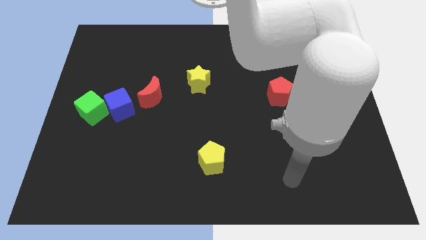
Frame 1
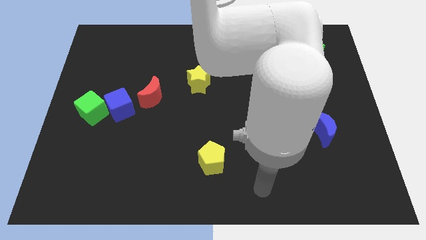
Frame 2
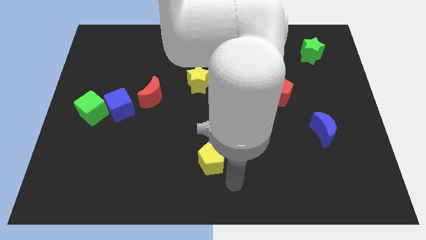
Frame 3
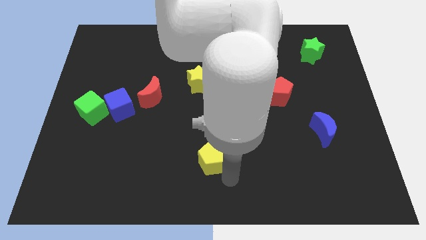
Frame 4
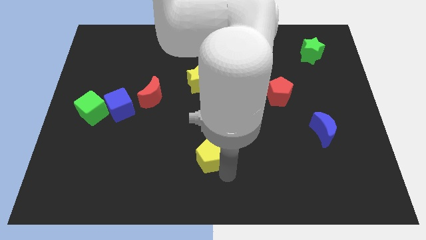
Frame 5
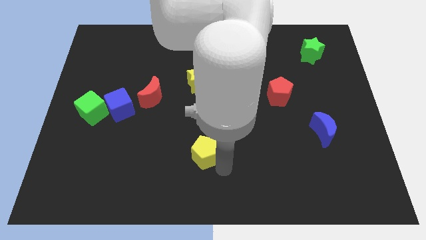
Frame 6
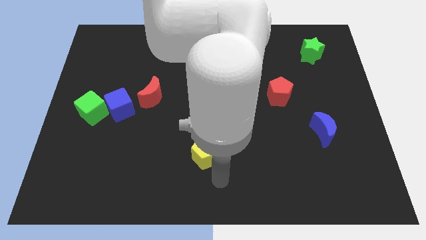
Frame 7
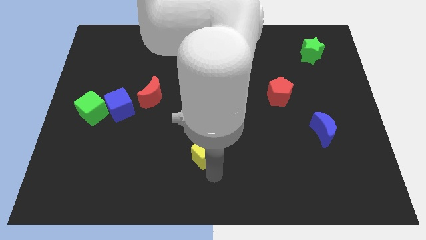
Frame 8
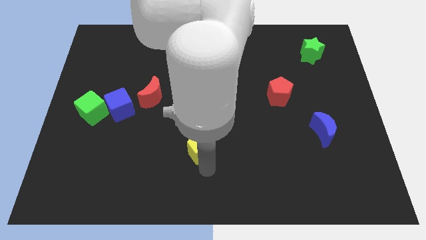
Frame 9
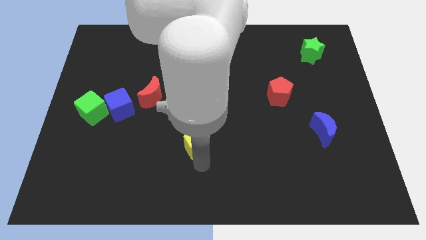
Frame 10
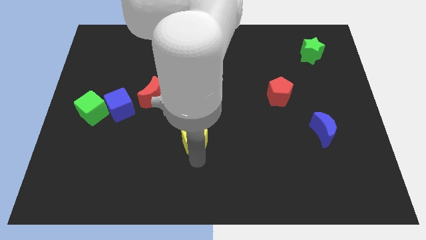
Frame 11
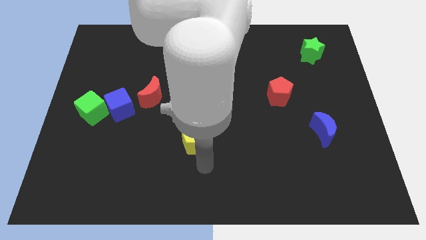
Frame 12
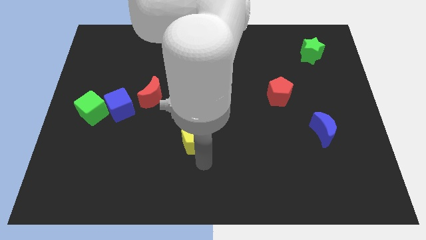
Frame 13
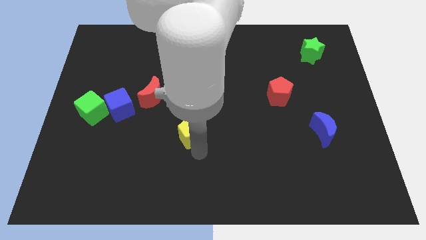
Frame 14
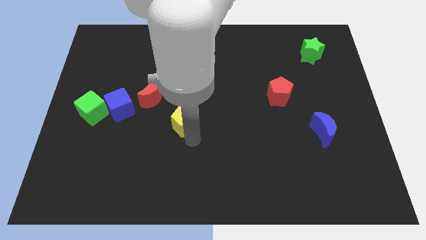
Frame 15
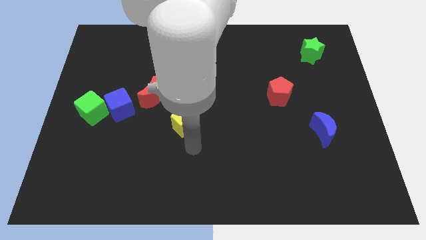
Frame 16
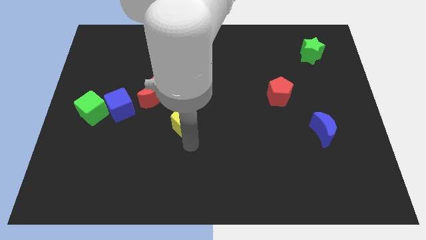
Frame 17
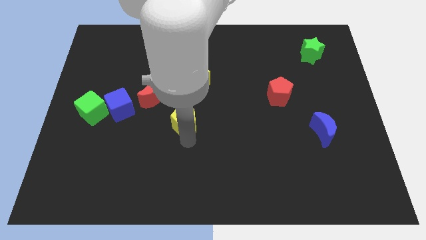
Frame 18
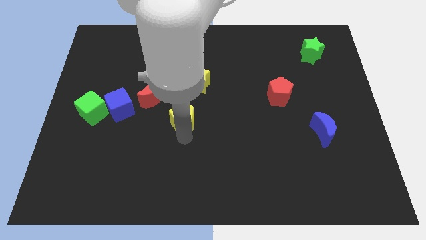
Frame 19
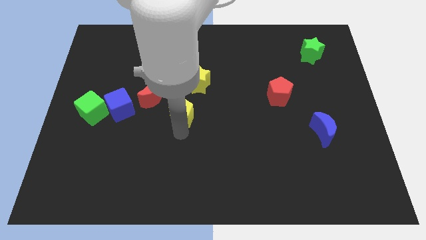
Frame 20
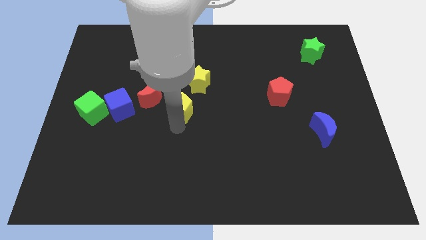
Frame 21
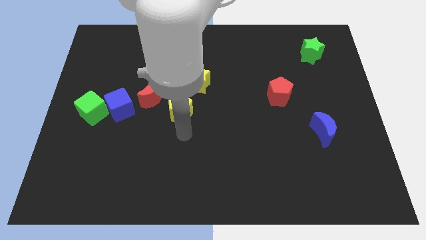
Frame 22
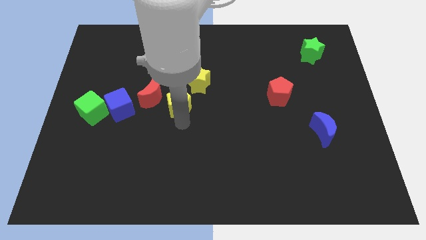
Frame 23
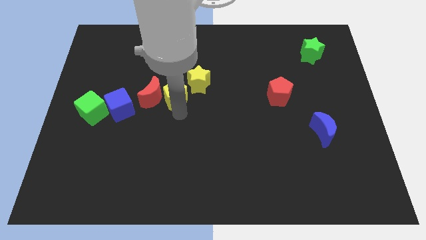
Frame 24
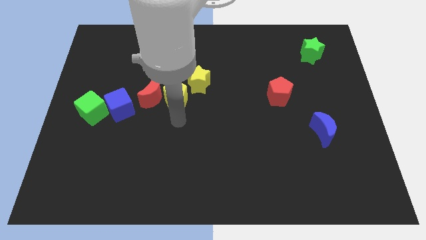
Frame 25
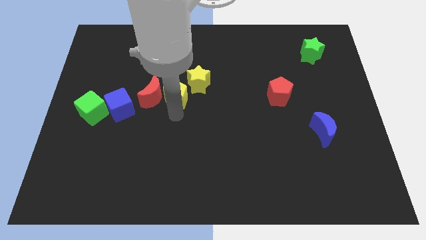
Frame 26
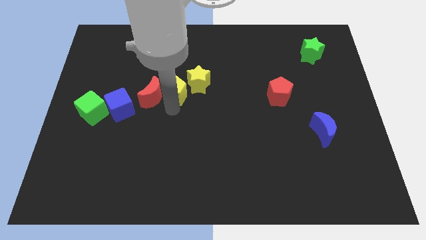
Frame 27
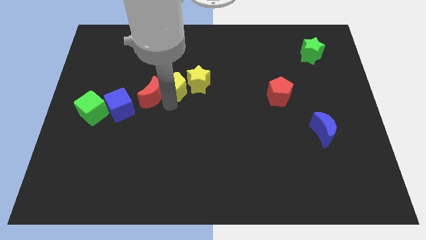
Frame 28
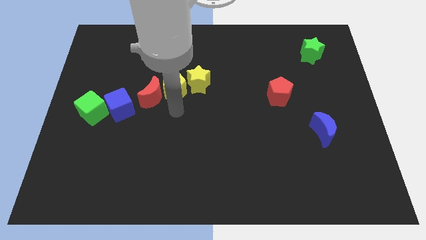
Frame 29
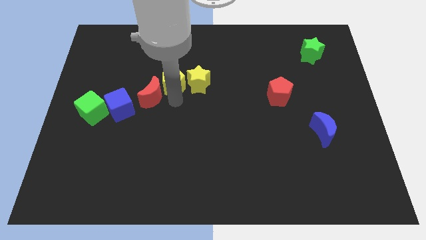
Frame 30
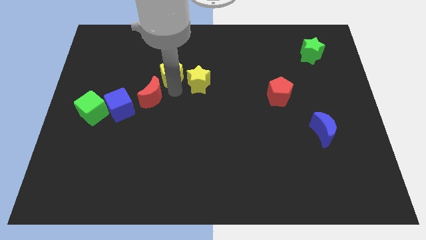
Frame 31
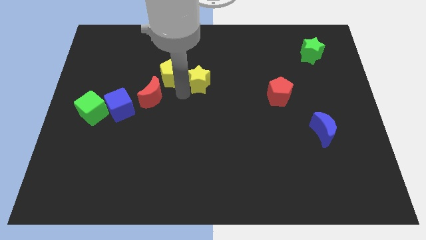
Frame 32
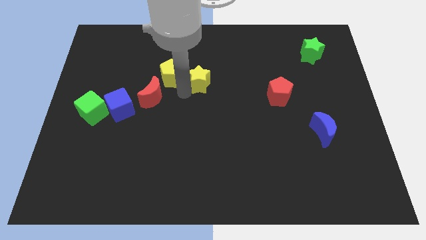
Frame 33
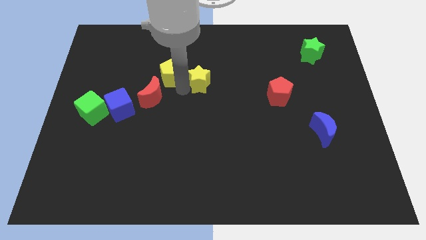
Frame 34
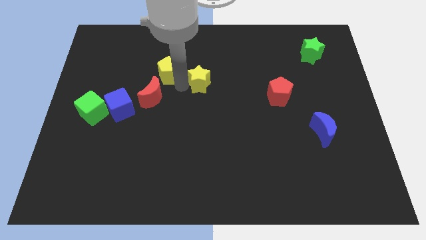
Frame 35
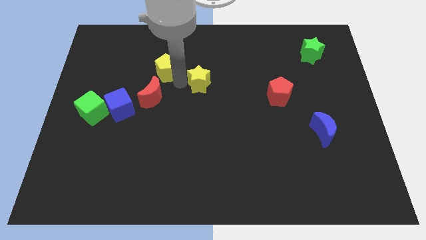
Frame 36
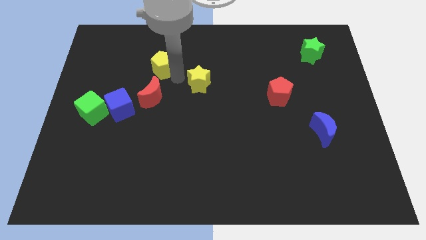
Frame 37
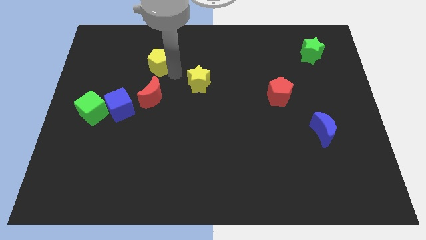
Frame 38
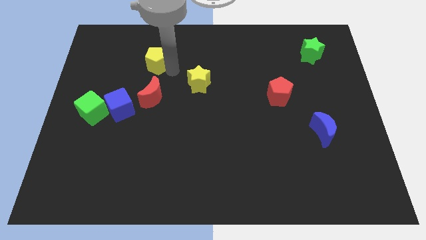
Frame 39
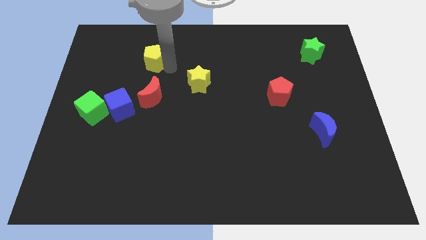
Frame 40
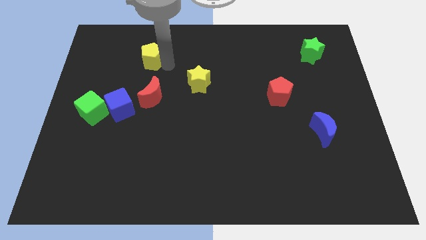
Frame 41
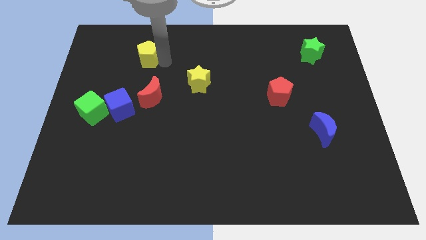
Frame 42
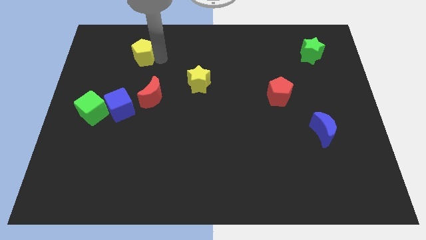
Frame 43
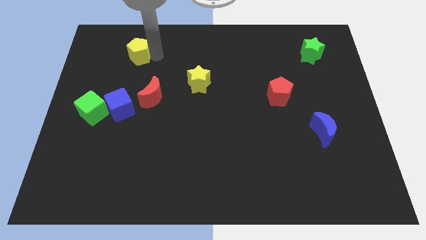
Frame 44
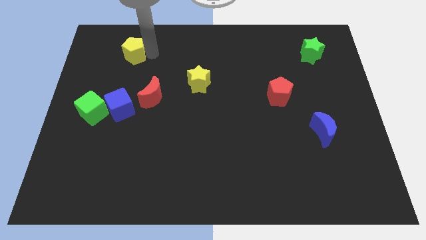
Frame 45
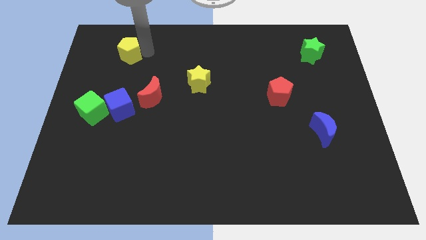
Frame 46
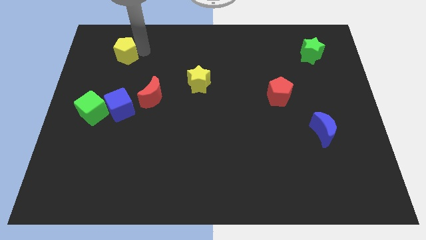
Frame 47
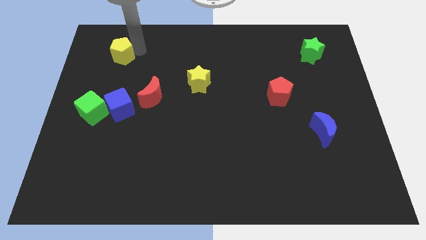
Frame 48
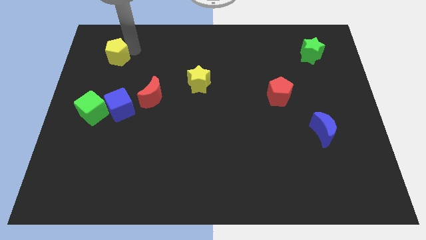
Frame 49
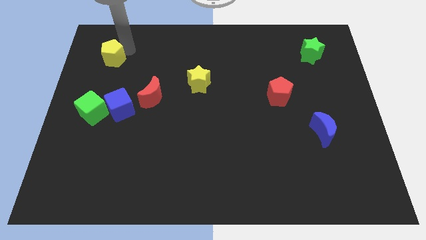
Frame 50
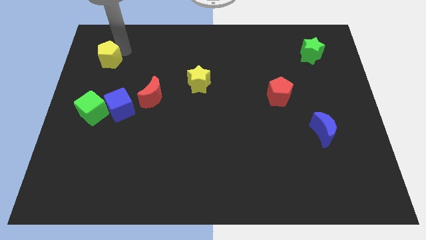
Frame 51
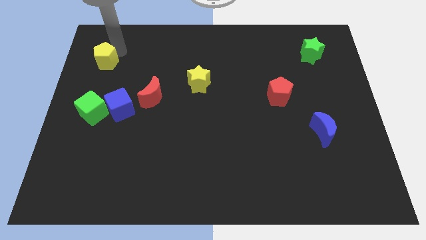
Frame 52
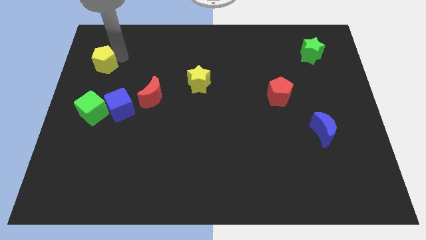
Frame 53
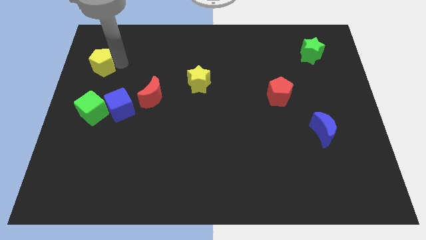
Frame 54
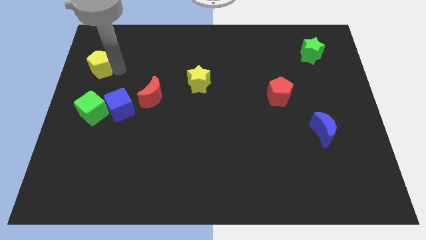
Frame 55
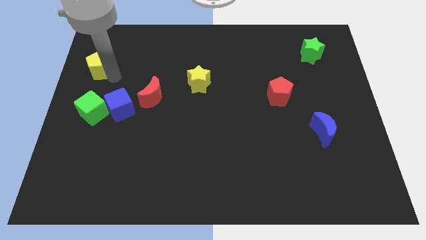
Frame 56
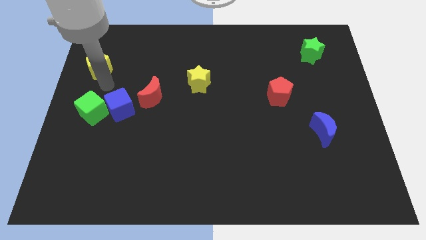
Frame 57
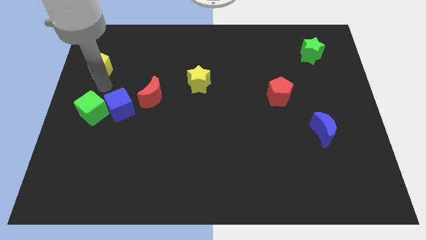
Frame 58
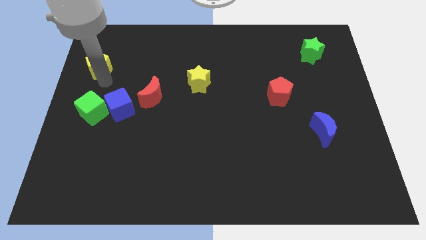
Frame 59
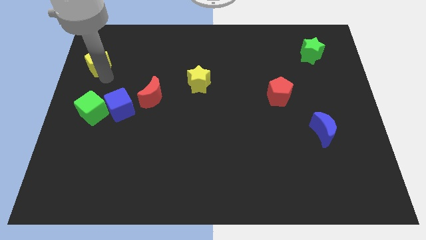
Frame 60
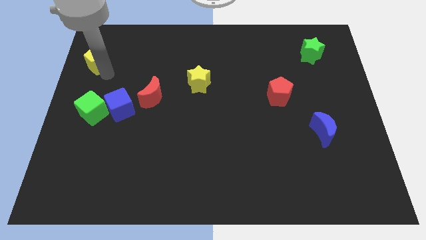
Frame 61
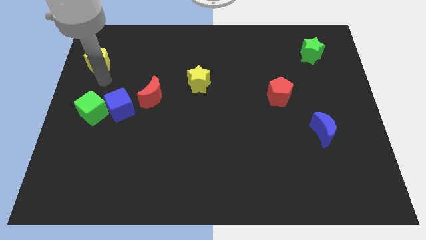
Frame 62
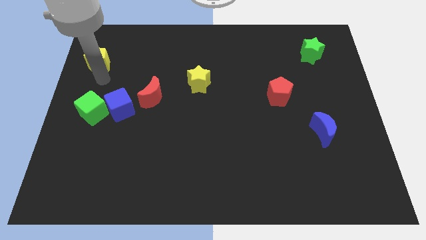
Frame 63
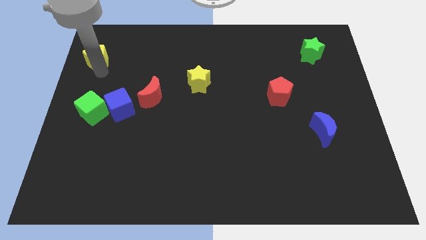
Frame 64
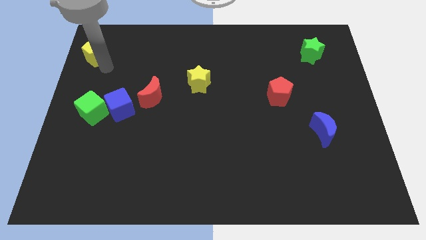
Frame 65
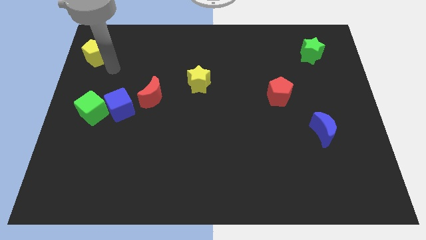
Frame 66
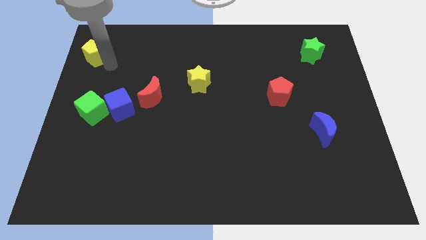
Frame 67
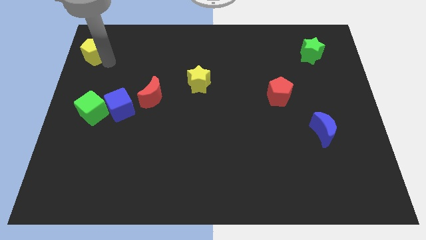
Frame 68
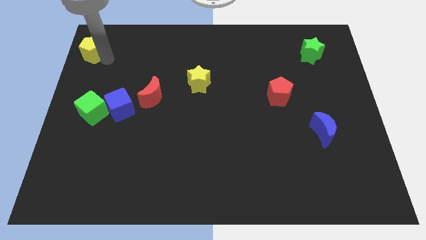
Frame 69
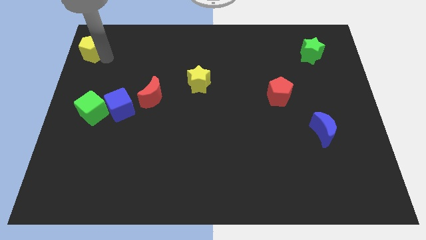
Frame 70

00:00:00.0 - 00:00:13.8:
push the yellow pentagon to the top left corner
